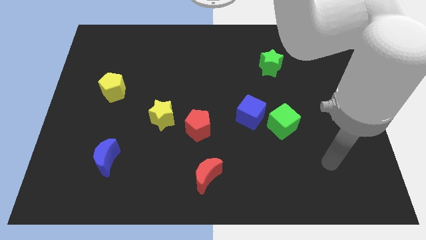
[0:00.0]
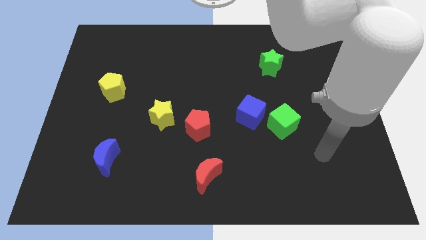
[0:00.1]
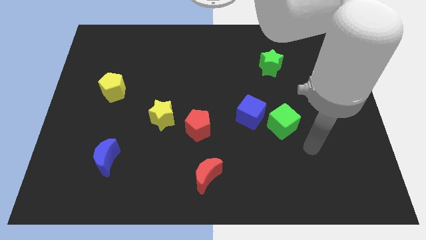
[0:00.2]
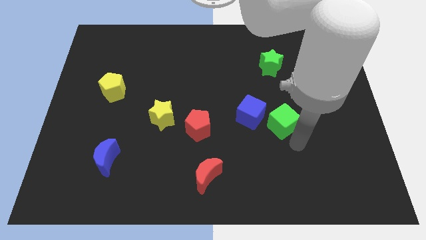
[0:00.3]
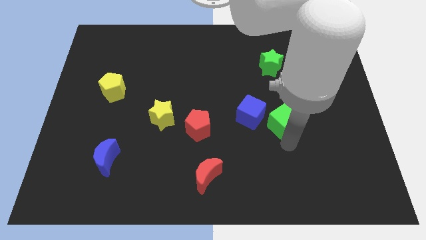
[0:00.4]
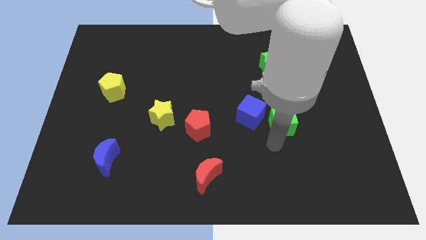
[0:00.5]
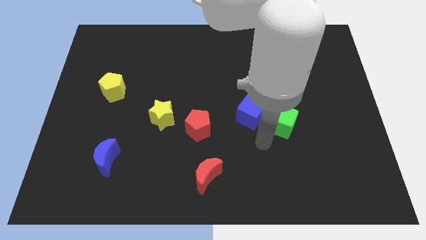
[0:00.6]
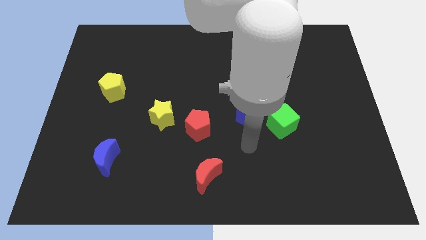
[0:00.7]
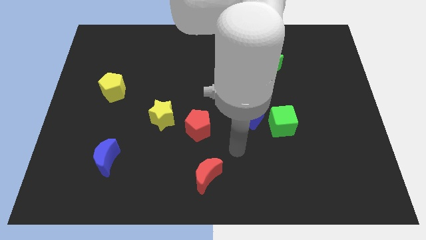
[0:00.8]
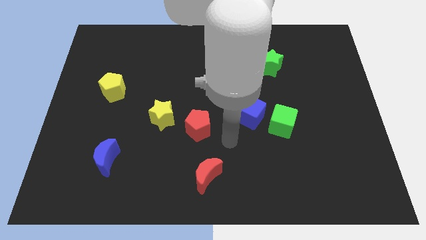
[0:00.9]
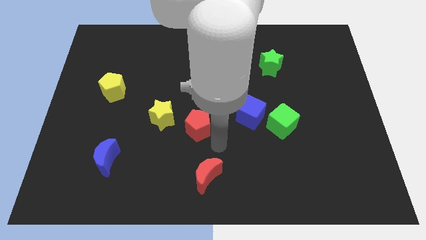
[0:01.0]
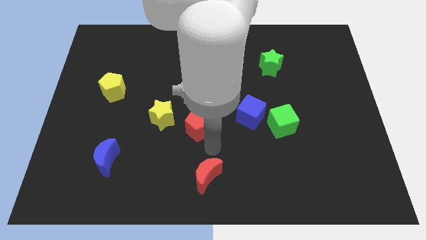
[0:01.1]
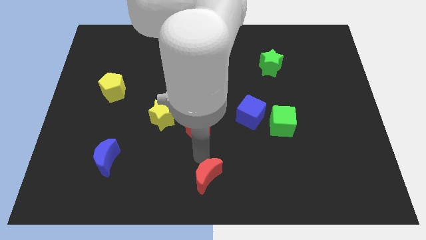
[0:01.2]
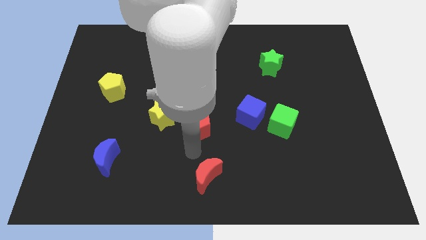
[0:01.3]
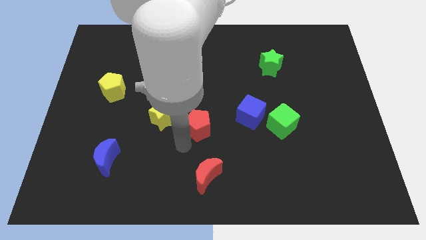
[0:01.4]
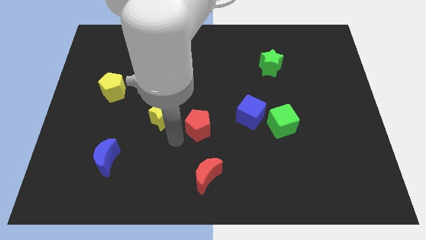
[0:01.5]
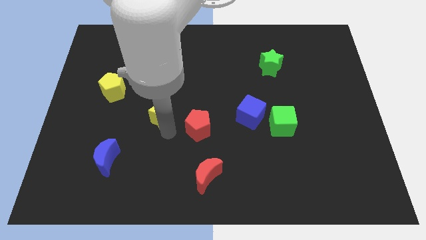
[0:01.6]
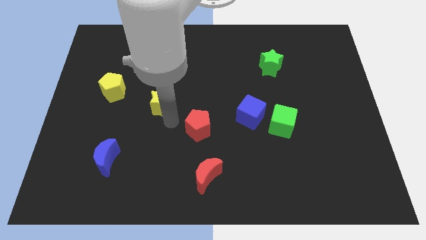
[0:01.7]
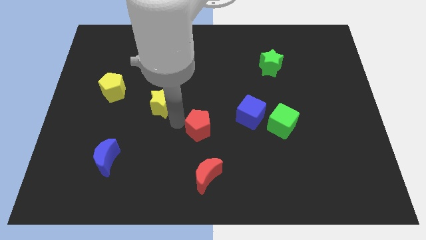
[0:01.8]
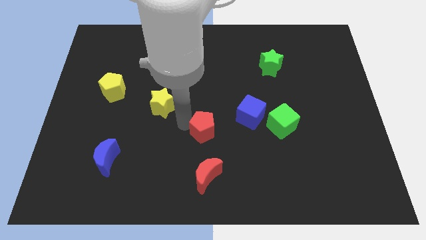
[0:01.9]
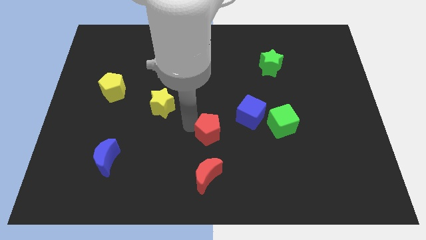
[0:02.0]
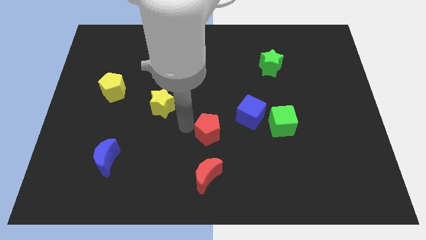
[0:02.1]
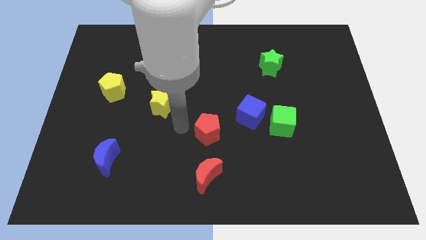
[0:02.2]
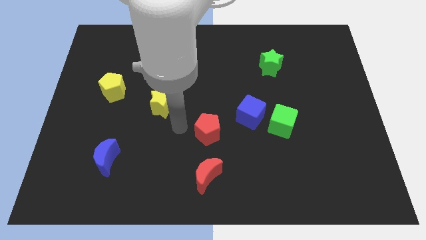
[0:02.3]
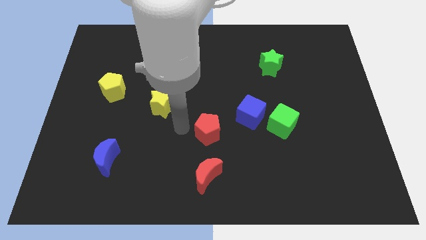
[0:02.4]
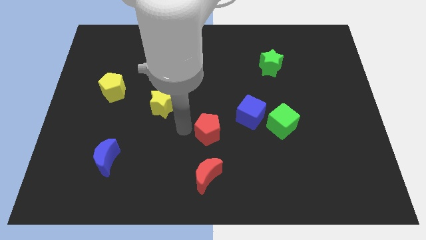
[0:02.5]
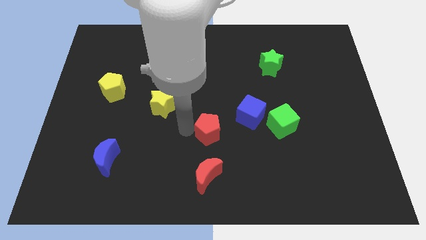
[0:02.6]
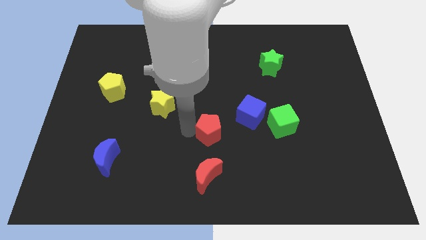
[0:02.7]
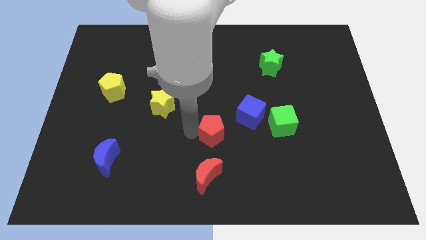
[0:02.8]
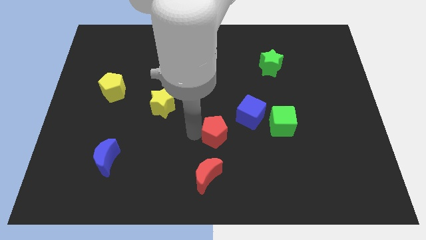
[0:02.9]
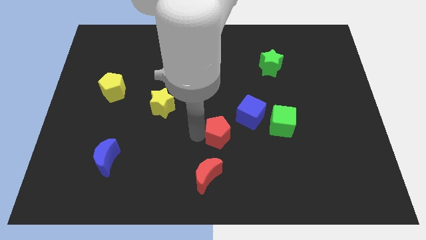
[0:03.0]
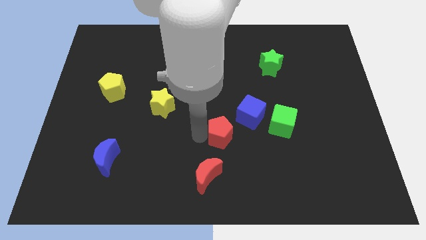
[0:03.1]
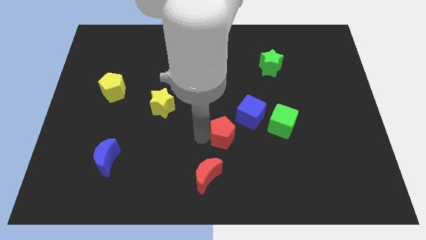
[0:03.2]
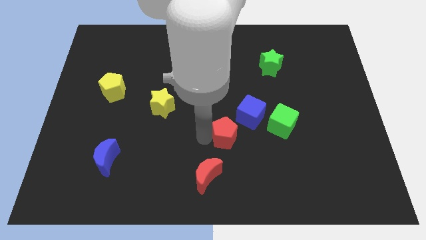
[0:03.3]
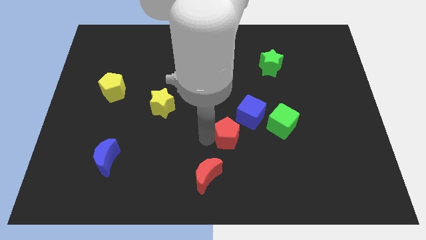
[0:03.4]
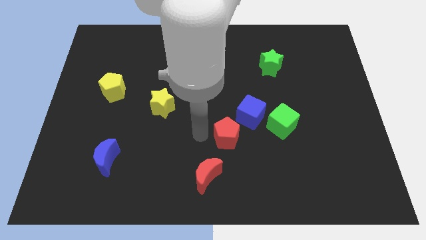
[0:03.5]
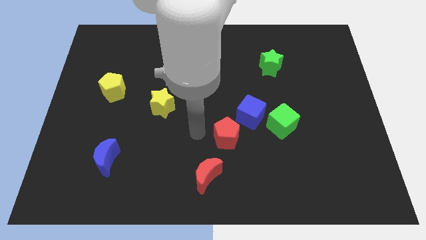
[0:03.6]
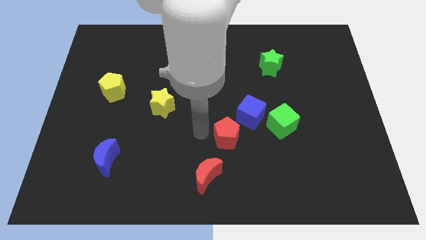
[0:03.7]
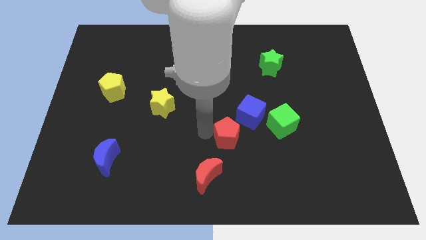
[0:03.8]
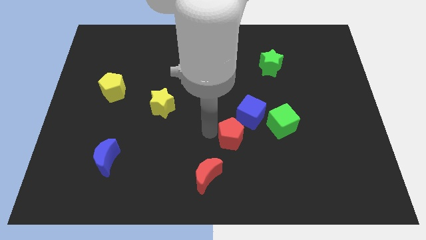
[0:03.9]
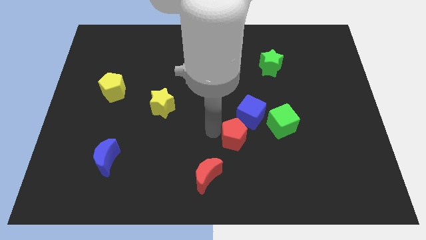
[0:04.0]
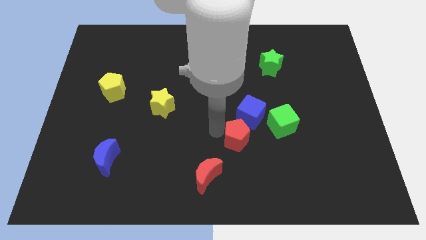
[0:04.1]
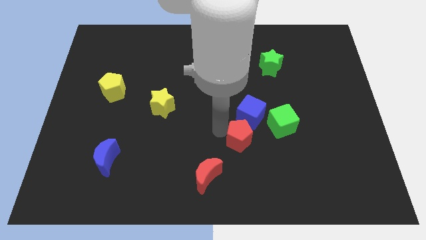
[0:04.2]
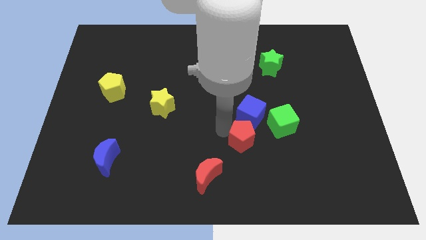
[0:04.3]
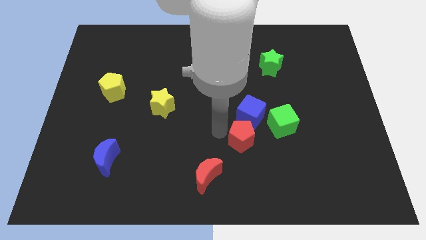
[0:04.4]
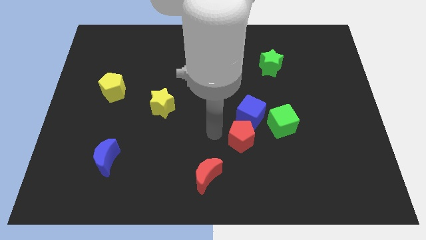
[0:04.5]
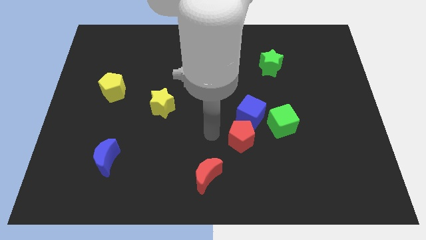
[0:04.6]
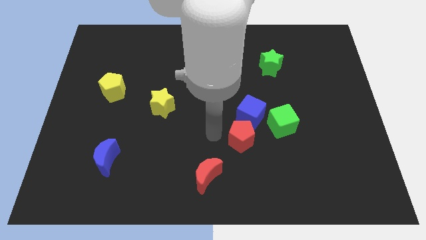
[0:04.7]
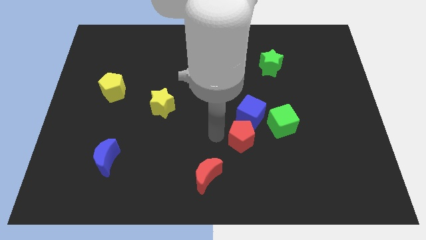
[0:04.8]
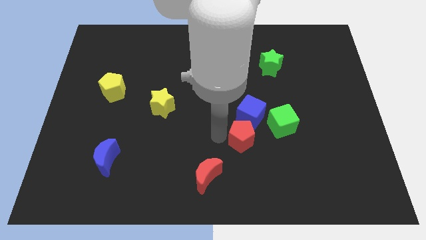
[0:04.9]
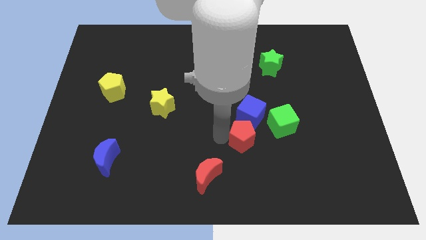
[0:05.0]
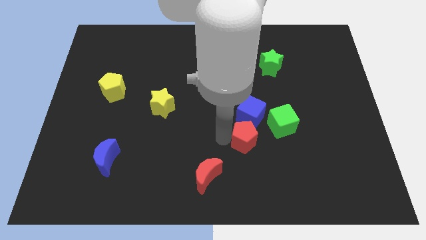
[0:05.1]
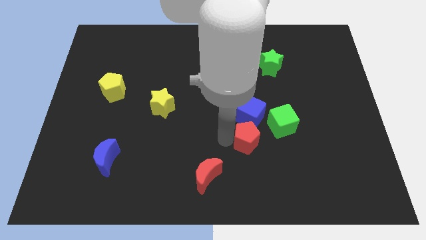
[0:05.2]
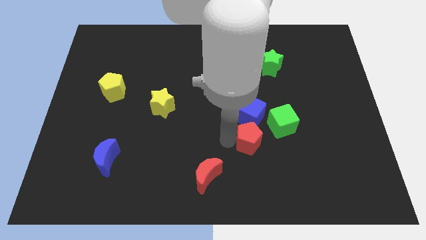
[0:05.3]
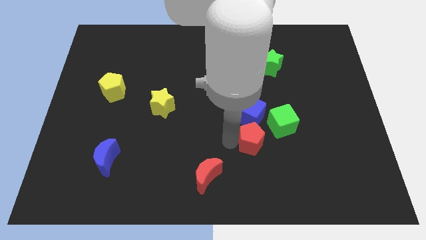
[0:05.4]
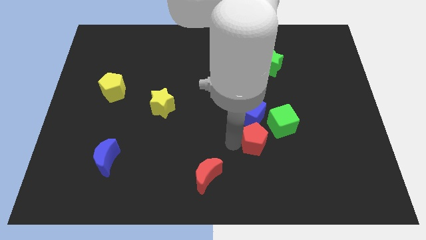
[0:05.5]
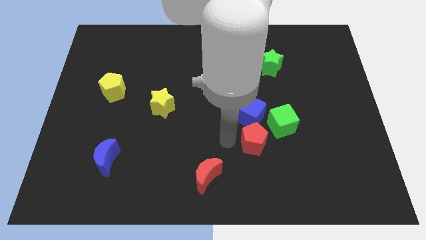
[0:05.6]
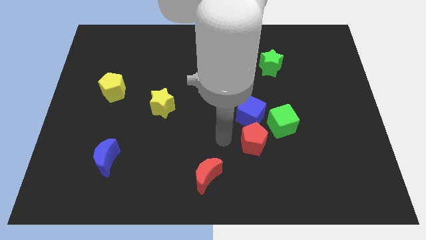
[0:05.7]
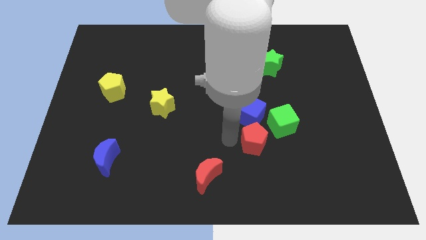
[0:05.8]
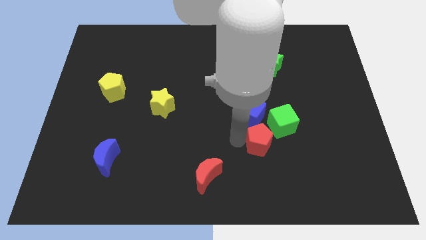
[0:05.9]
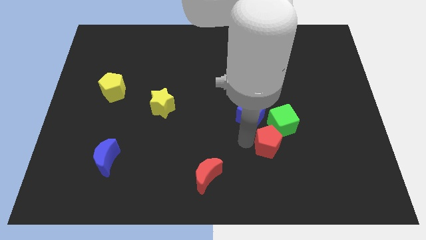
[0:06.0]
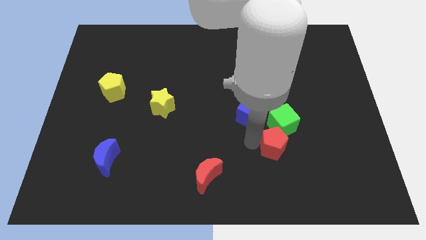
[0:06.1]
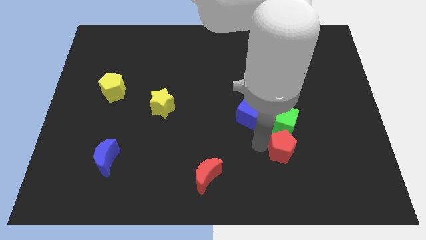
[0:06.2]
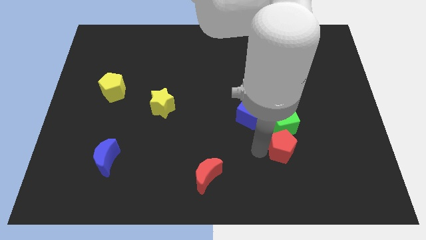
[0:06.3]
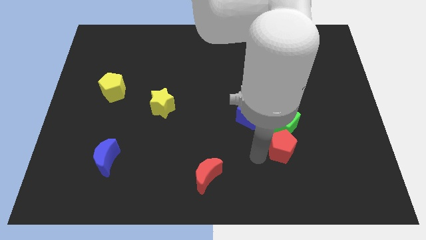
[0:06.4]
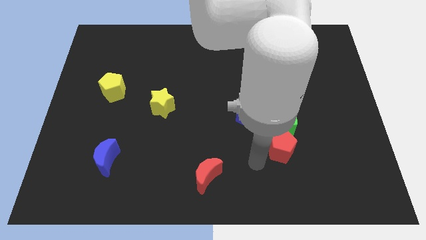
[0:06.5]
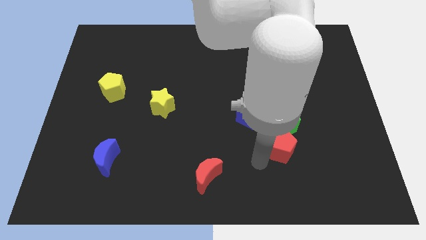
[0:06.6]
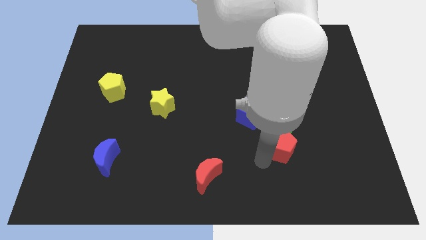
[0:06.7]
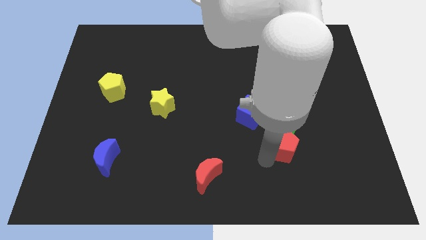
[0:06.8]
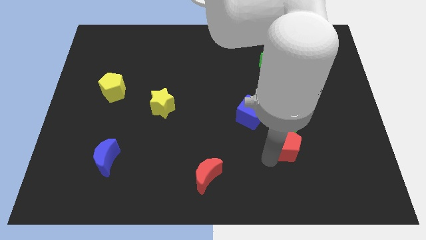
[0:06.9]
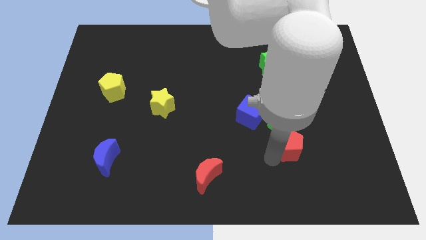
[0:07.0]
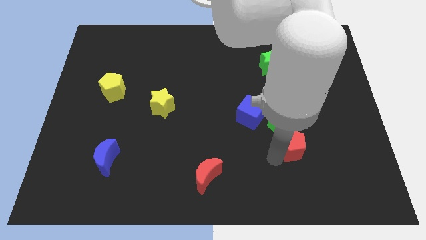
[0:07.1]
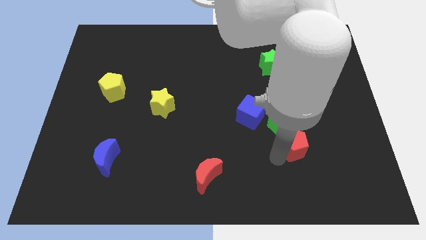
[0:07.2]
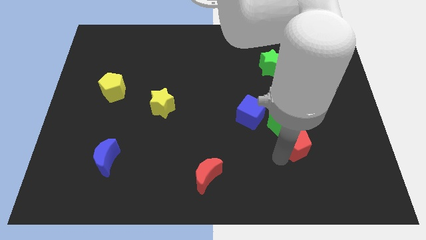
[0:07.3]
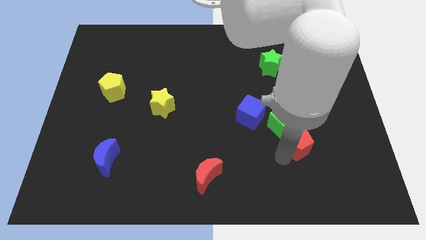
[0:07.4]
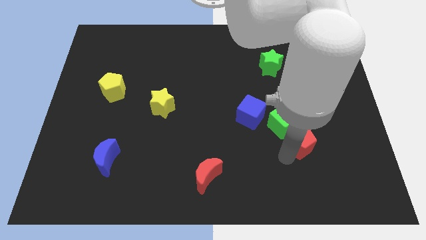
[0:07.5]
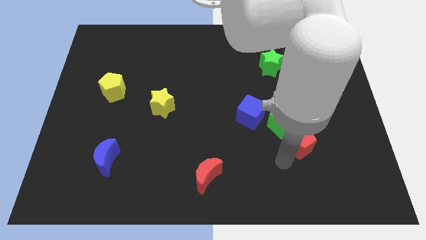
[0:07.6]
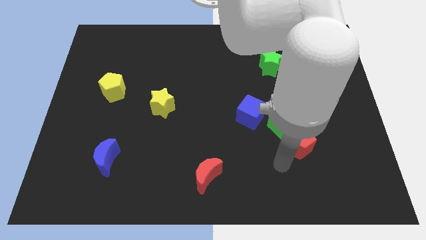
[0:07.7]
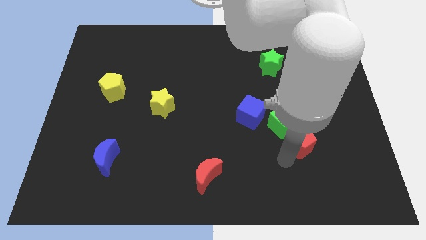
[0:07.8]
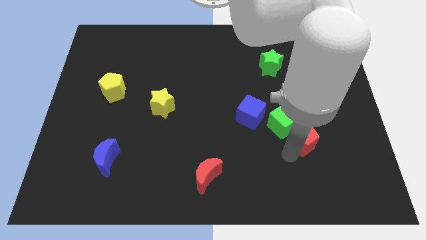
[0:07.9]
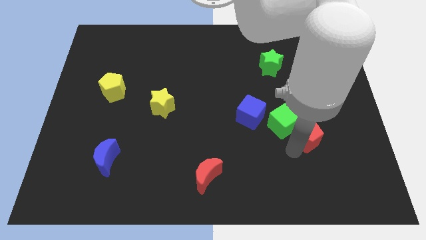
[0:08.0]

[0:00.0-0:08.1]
slide the red pentagon right of the green cube
